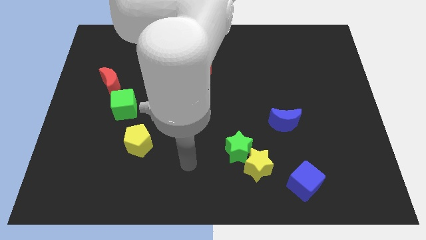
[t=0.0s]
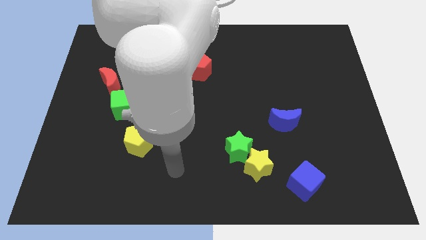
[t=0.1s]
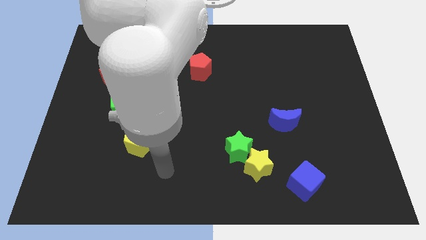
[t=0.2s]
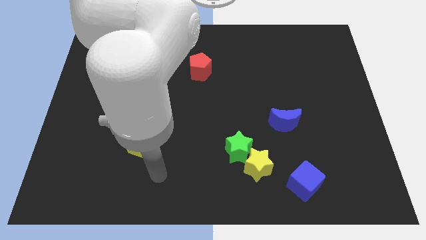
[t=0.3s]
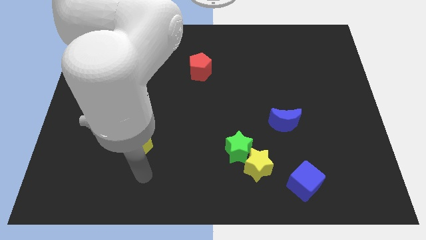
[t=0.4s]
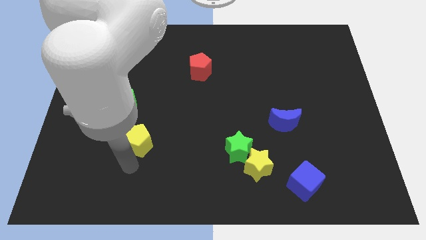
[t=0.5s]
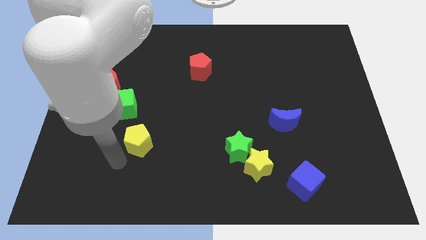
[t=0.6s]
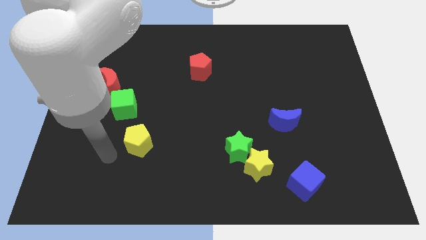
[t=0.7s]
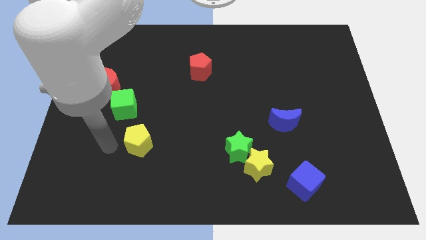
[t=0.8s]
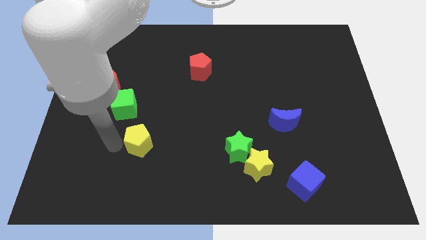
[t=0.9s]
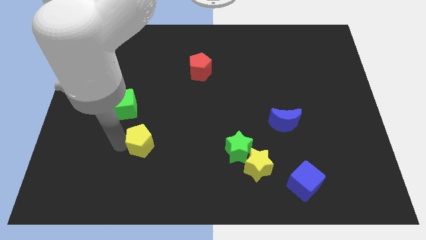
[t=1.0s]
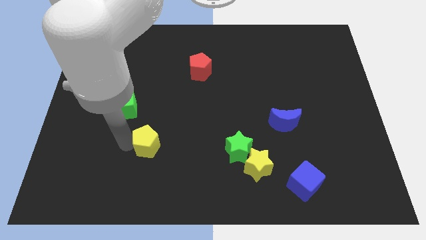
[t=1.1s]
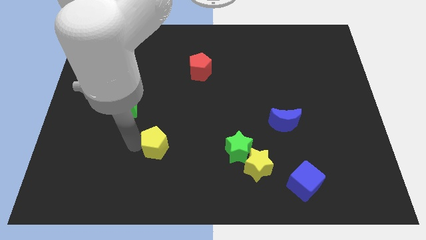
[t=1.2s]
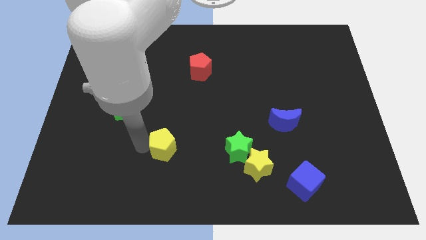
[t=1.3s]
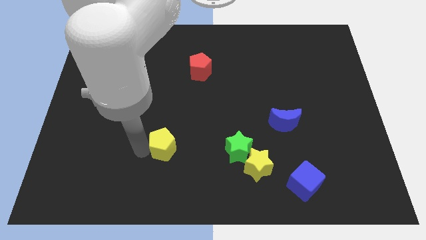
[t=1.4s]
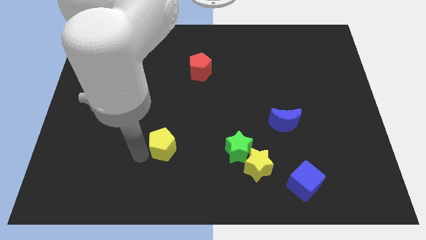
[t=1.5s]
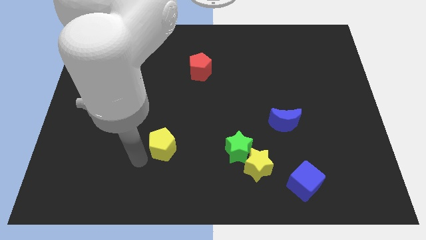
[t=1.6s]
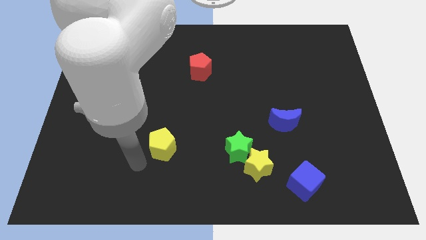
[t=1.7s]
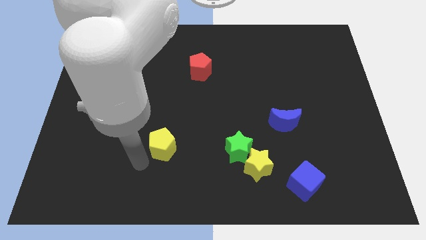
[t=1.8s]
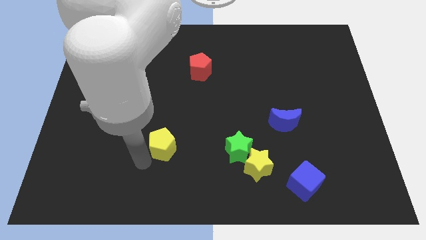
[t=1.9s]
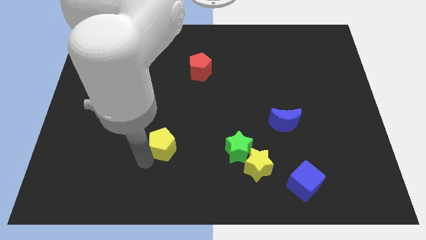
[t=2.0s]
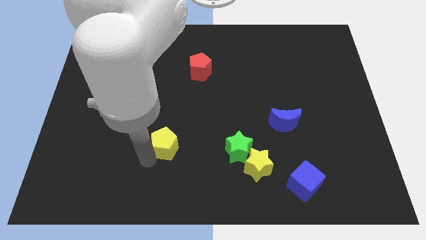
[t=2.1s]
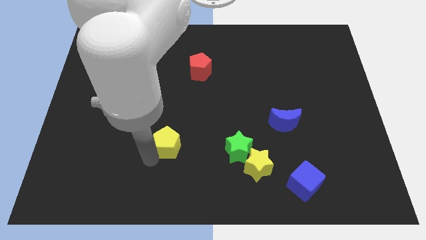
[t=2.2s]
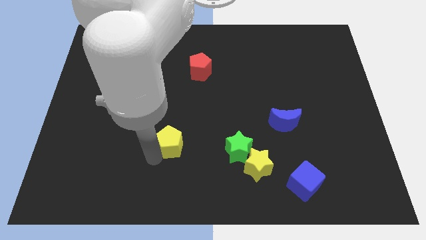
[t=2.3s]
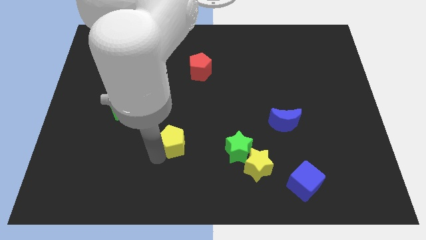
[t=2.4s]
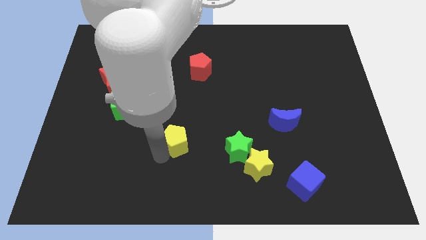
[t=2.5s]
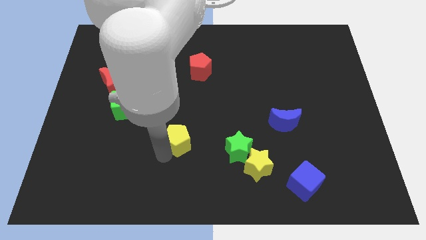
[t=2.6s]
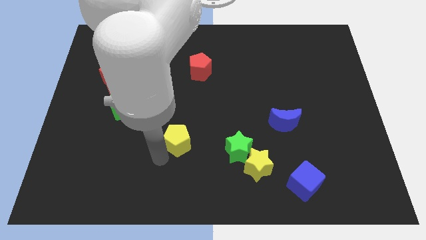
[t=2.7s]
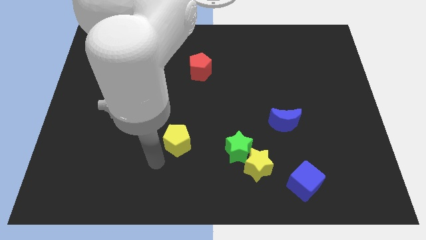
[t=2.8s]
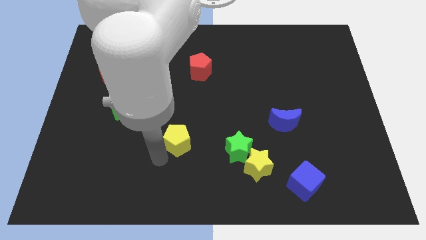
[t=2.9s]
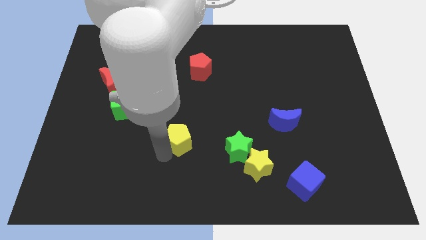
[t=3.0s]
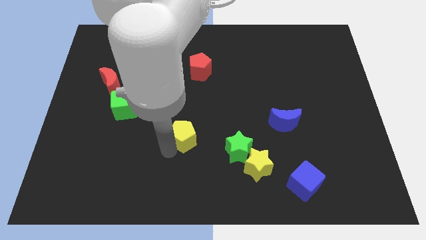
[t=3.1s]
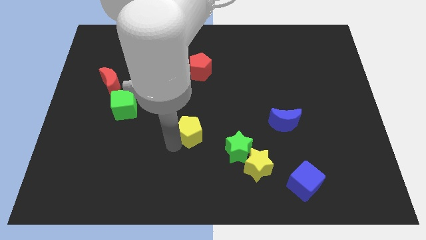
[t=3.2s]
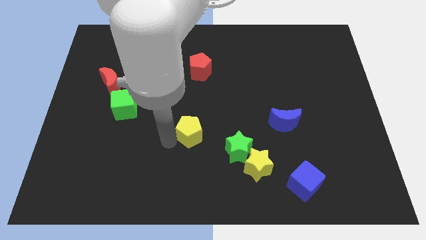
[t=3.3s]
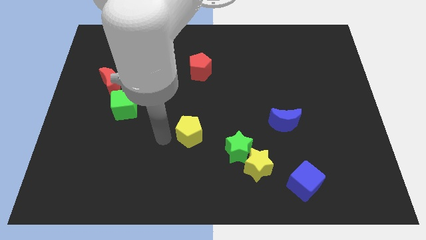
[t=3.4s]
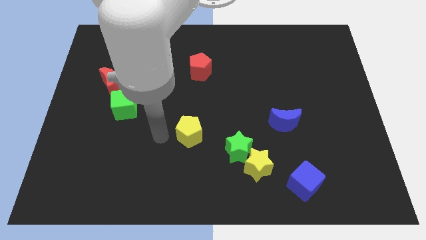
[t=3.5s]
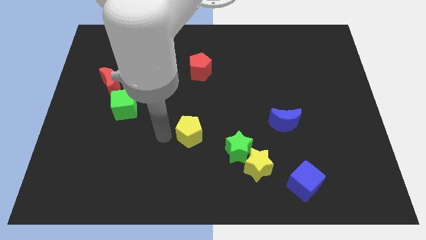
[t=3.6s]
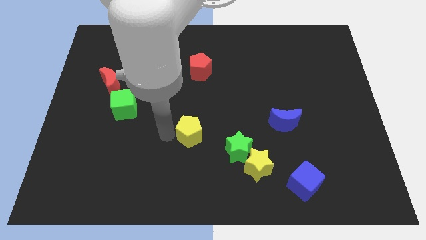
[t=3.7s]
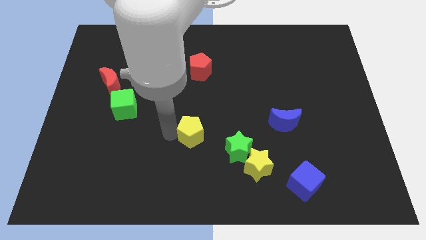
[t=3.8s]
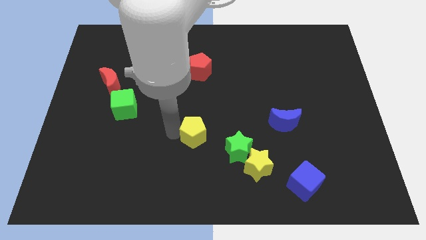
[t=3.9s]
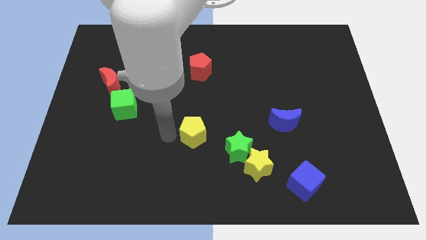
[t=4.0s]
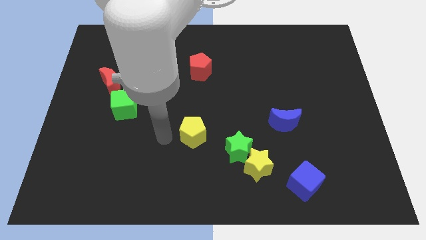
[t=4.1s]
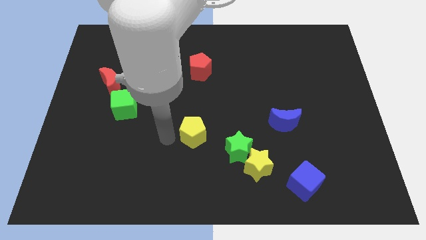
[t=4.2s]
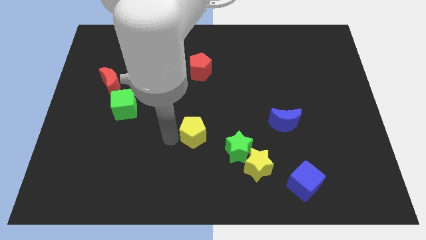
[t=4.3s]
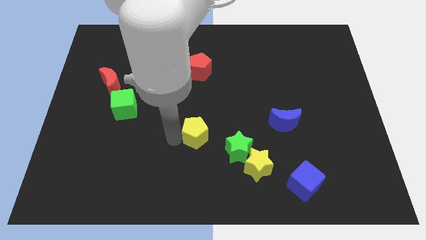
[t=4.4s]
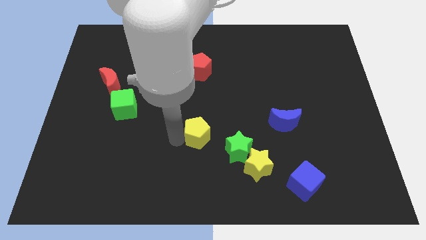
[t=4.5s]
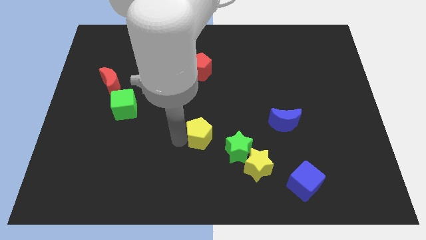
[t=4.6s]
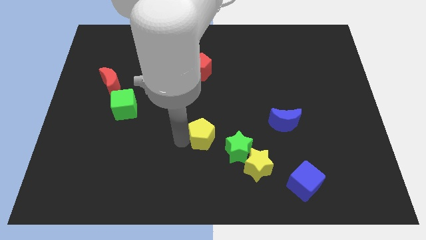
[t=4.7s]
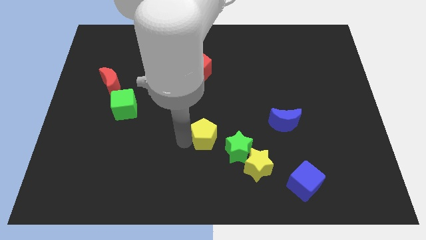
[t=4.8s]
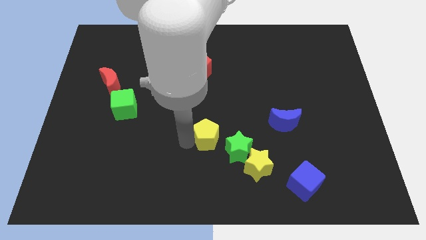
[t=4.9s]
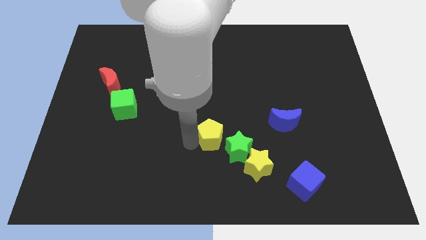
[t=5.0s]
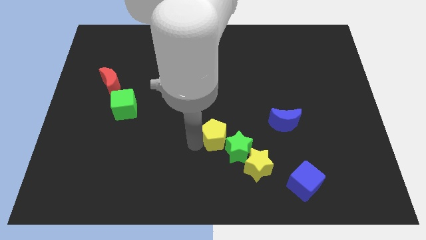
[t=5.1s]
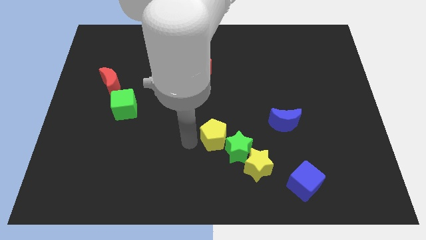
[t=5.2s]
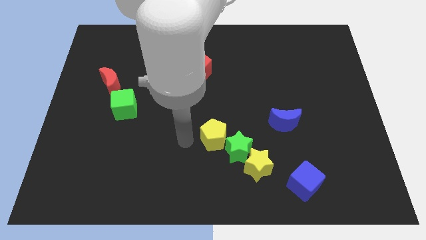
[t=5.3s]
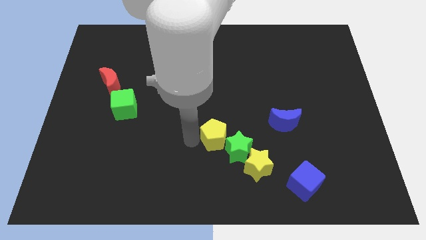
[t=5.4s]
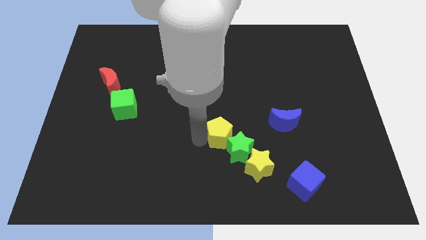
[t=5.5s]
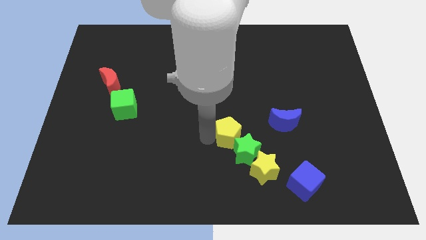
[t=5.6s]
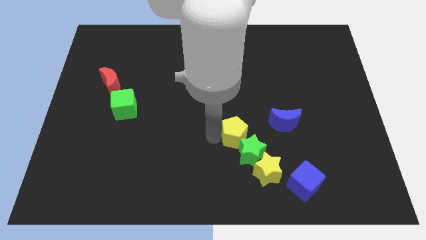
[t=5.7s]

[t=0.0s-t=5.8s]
push the yellow pentagon right

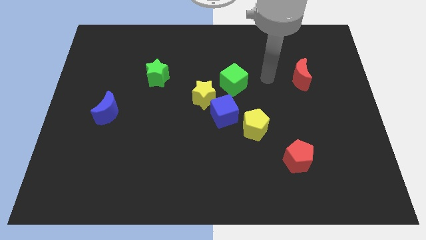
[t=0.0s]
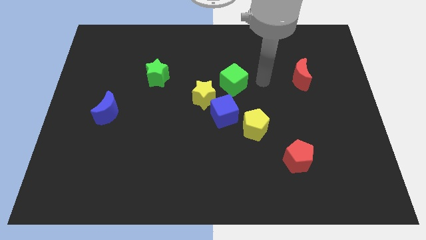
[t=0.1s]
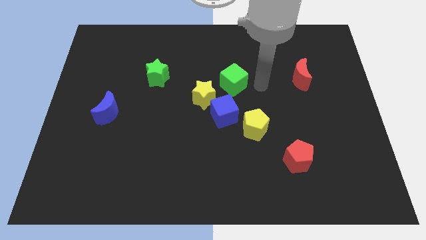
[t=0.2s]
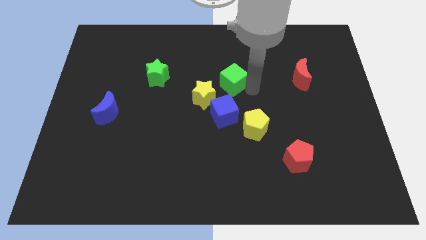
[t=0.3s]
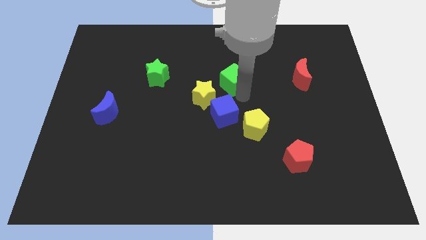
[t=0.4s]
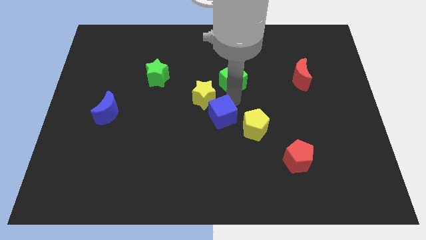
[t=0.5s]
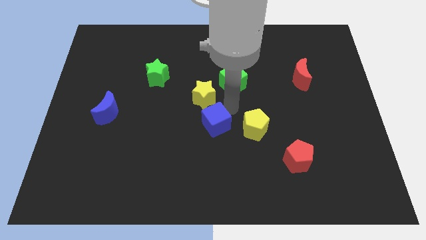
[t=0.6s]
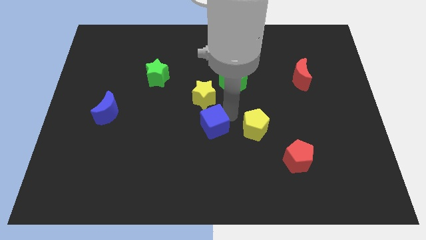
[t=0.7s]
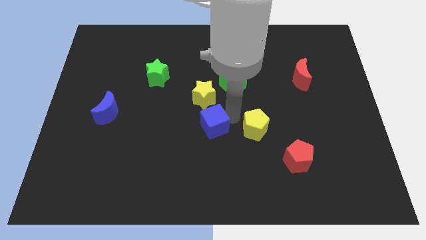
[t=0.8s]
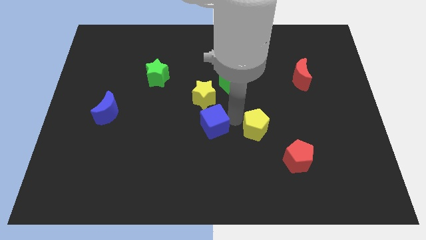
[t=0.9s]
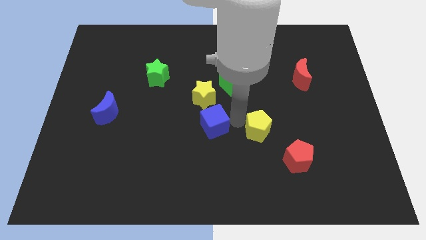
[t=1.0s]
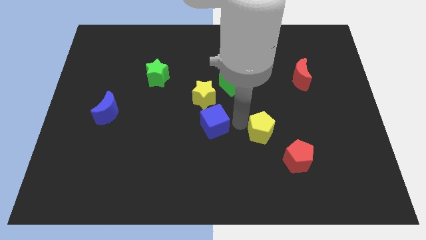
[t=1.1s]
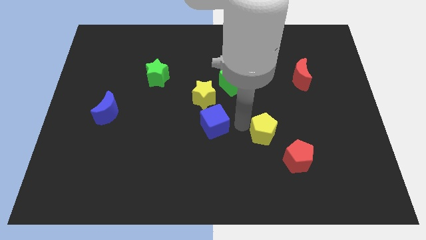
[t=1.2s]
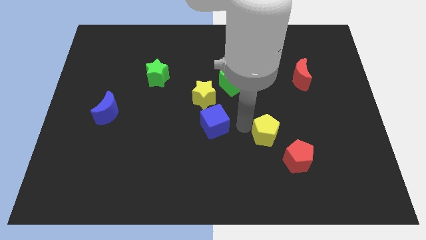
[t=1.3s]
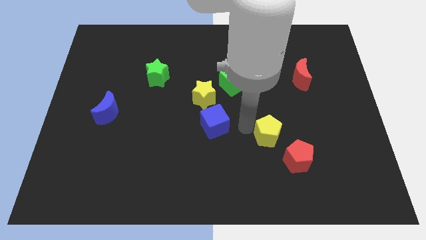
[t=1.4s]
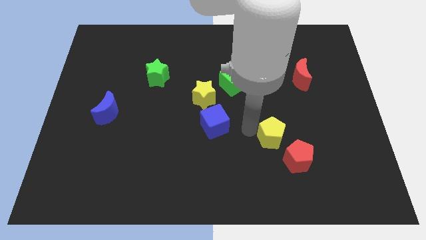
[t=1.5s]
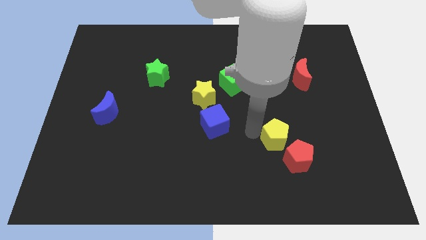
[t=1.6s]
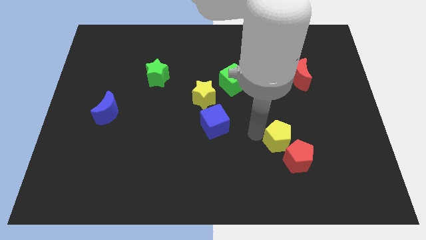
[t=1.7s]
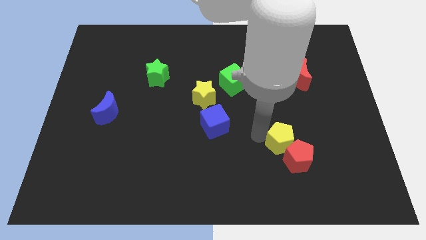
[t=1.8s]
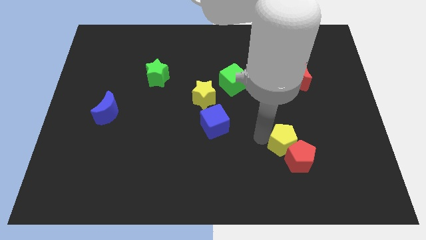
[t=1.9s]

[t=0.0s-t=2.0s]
slide the yellow pentagon down and then right somewhat

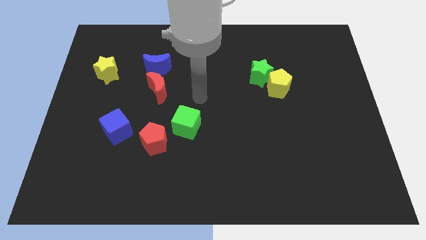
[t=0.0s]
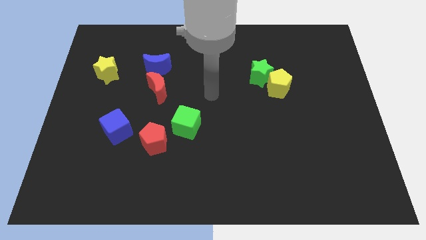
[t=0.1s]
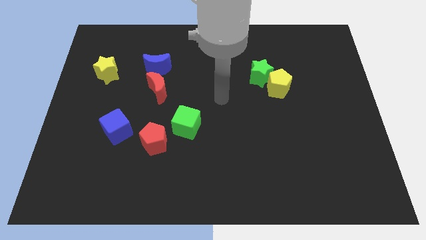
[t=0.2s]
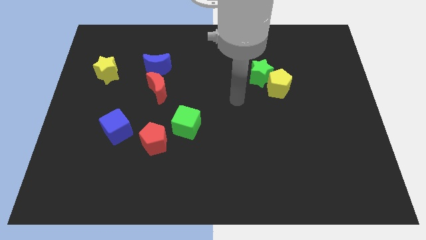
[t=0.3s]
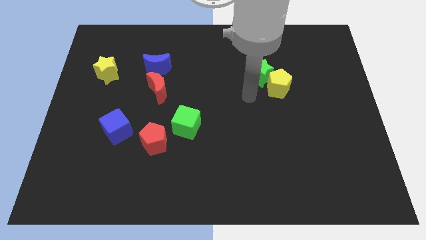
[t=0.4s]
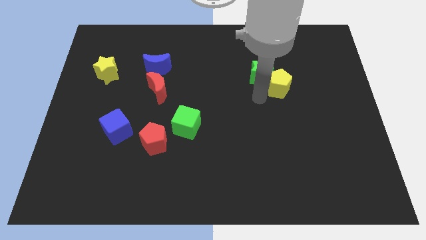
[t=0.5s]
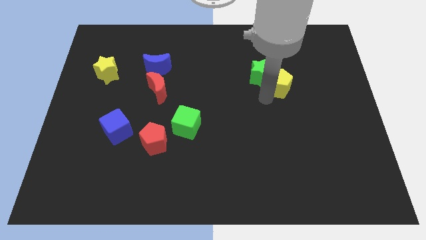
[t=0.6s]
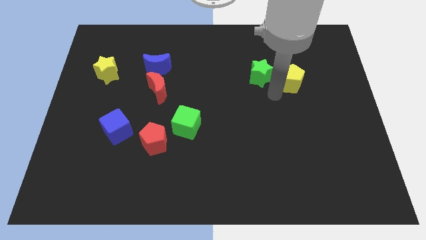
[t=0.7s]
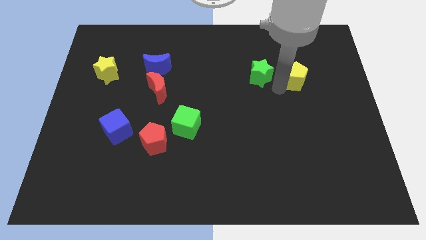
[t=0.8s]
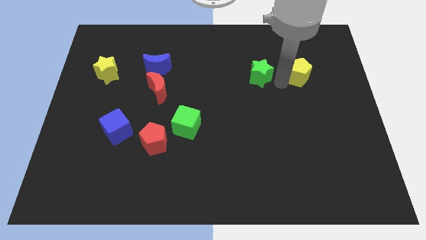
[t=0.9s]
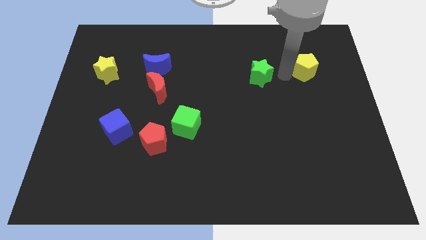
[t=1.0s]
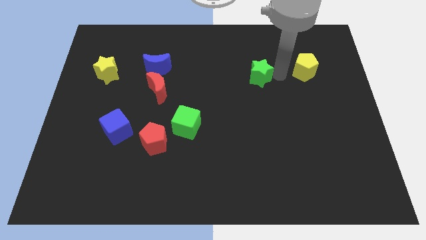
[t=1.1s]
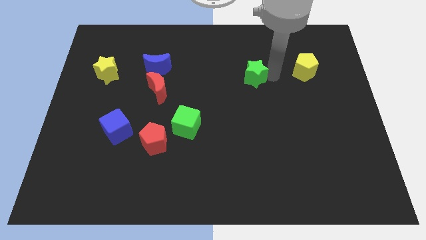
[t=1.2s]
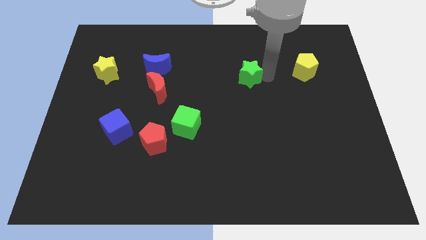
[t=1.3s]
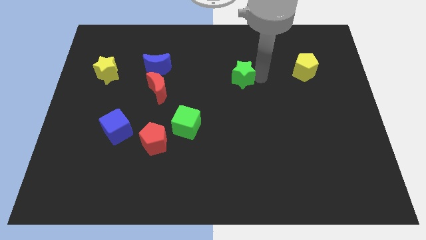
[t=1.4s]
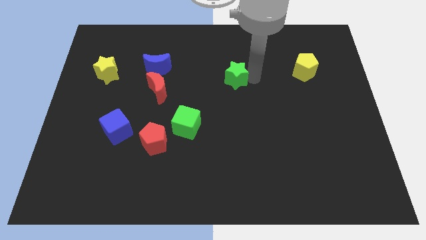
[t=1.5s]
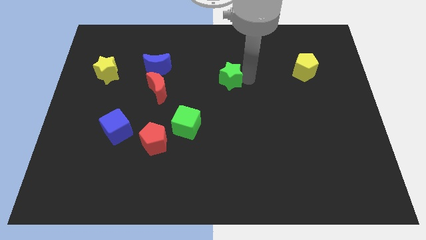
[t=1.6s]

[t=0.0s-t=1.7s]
move the green star a little bit to the left
